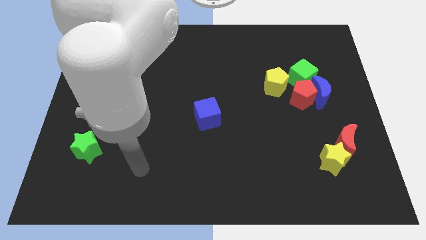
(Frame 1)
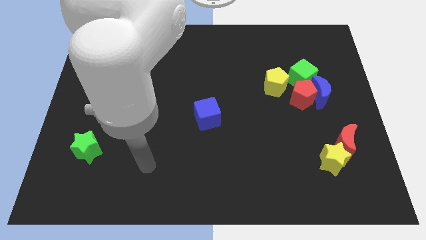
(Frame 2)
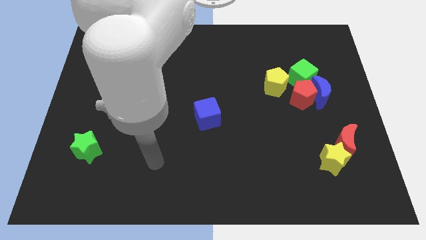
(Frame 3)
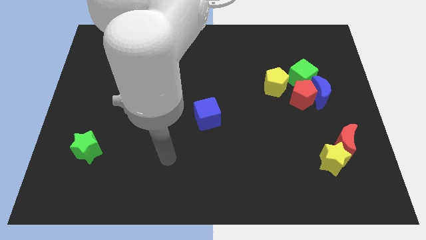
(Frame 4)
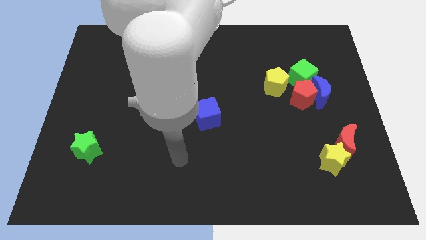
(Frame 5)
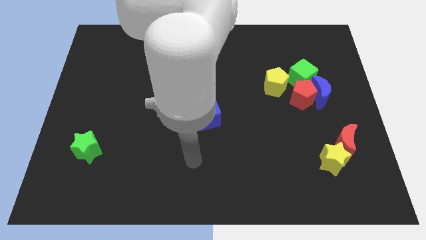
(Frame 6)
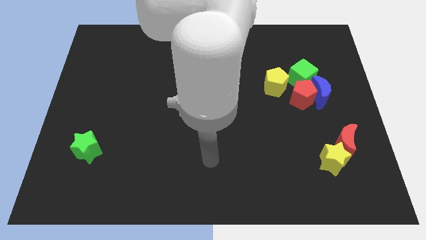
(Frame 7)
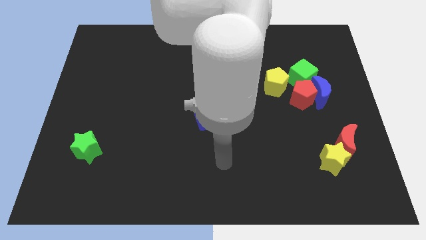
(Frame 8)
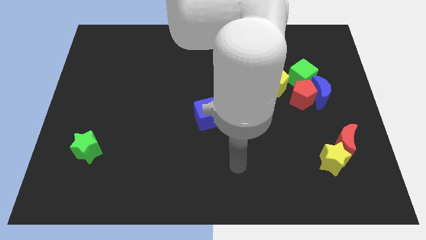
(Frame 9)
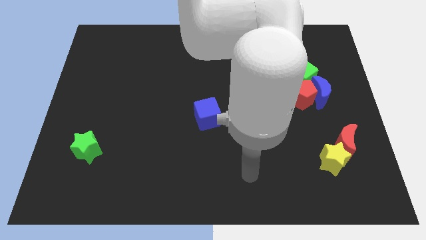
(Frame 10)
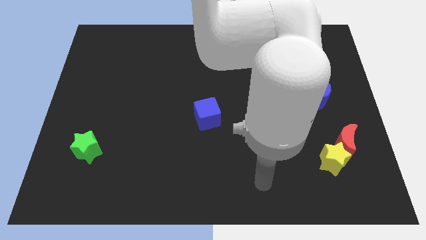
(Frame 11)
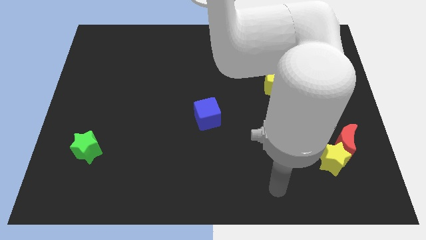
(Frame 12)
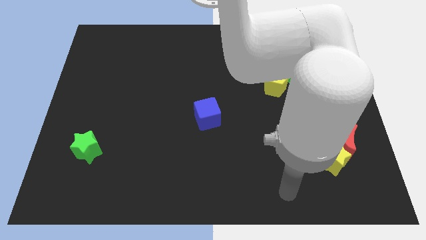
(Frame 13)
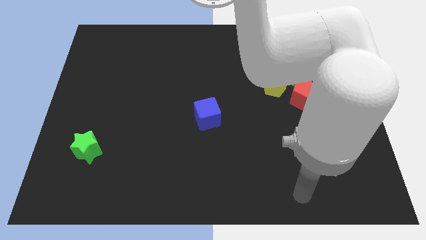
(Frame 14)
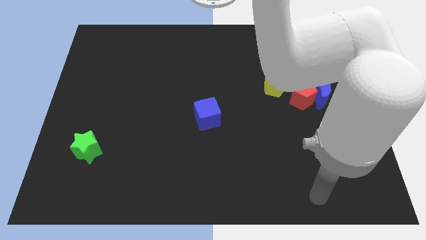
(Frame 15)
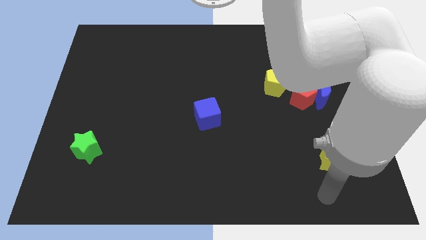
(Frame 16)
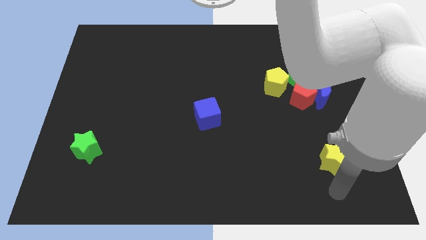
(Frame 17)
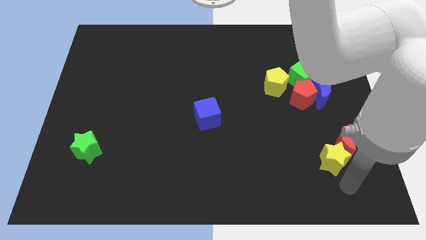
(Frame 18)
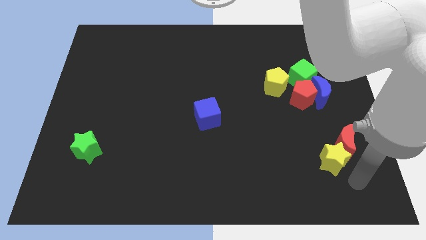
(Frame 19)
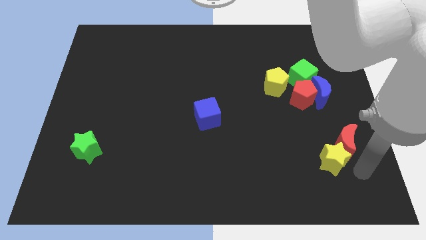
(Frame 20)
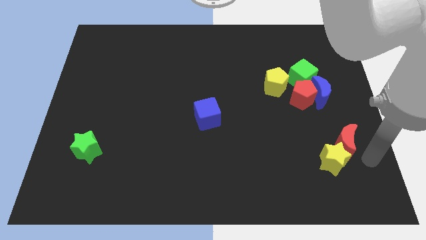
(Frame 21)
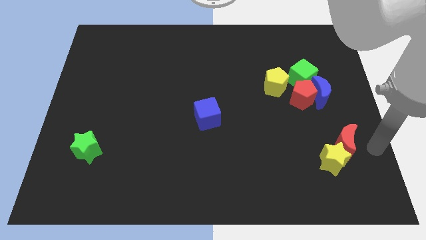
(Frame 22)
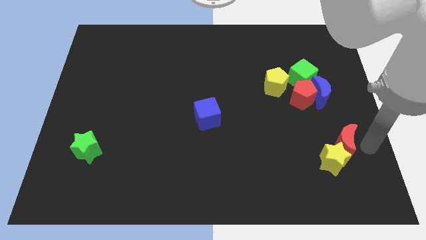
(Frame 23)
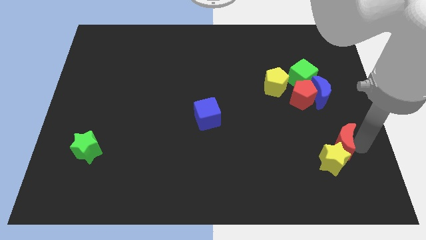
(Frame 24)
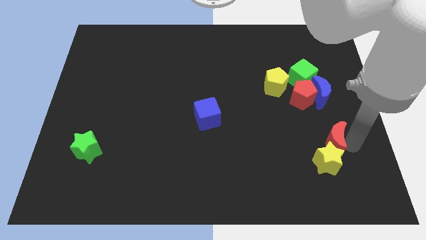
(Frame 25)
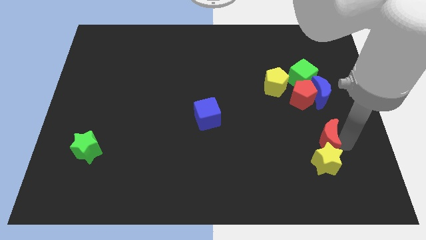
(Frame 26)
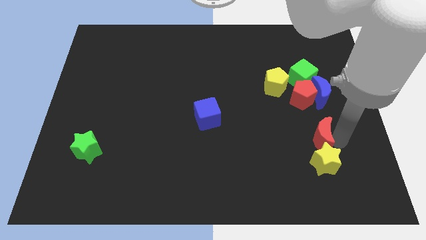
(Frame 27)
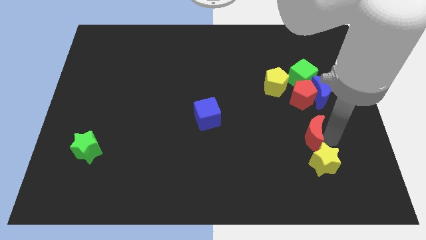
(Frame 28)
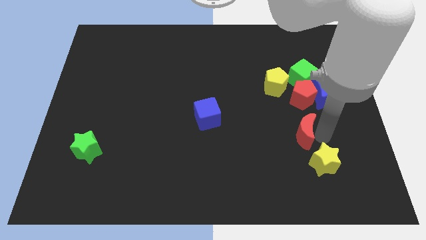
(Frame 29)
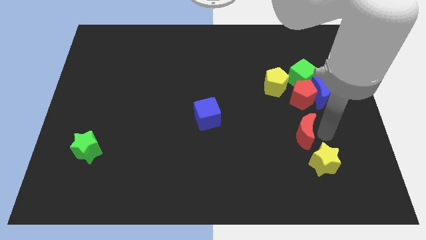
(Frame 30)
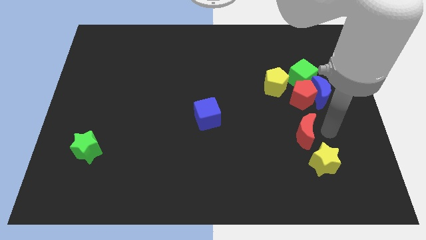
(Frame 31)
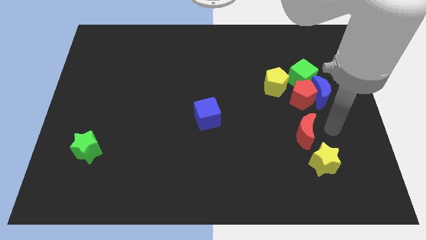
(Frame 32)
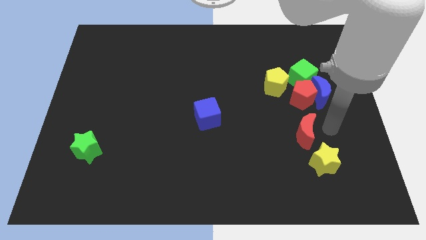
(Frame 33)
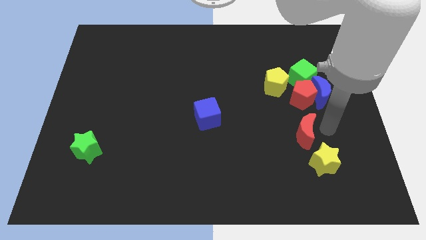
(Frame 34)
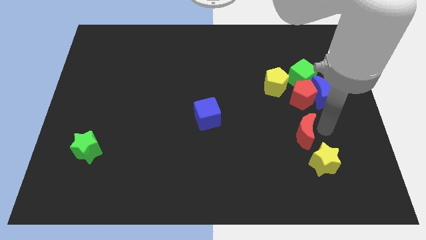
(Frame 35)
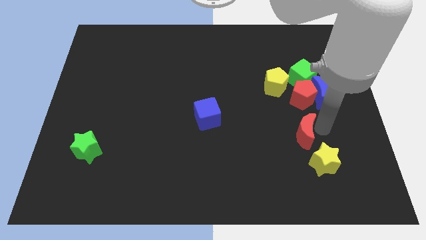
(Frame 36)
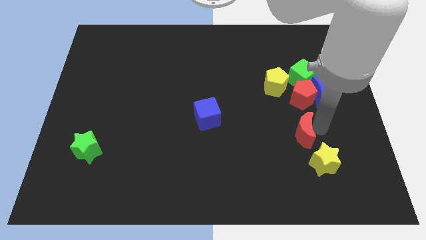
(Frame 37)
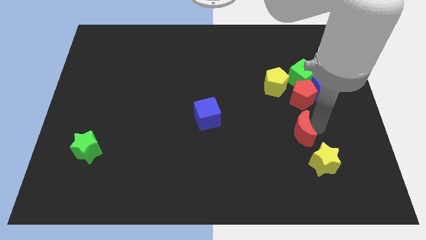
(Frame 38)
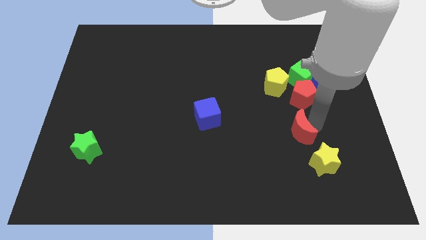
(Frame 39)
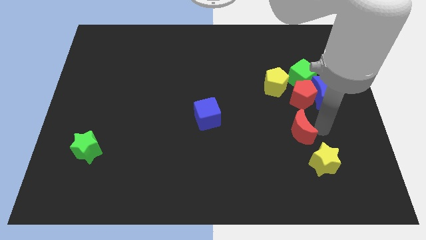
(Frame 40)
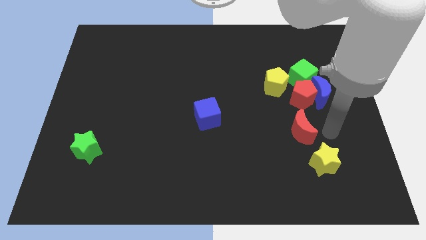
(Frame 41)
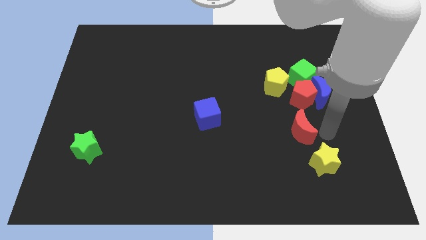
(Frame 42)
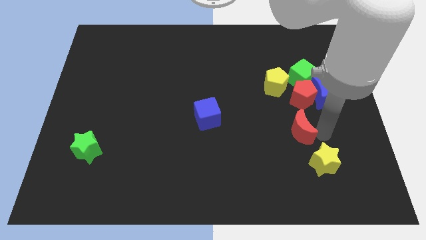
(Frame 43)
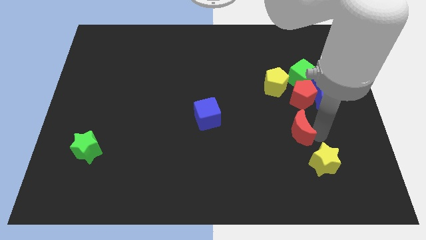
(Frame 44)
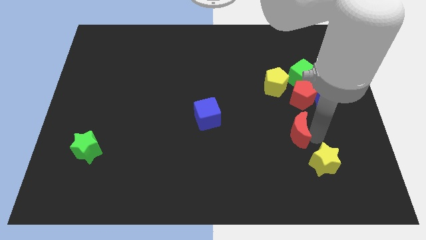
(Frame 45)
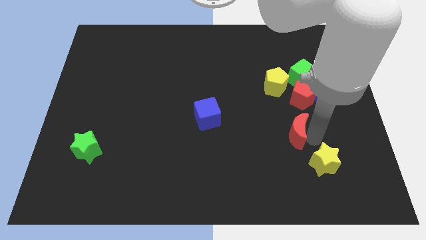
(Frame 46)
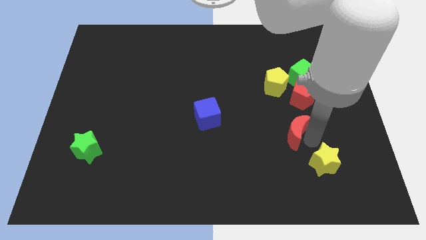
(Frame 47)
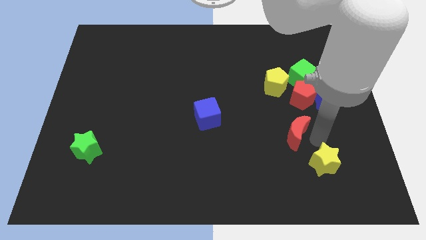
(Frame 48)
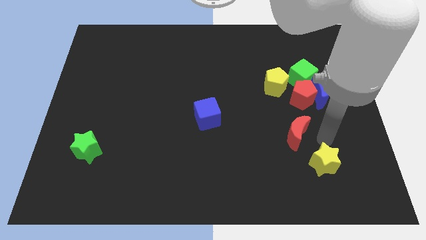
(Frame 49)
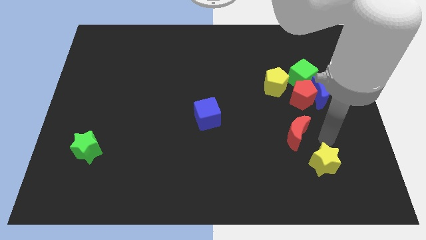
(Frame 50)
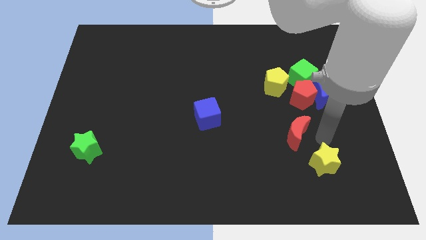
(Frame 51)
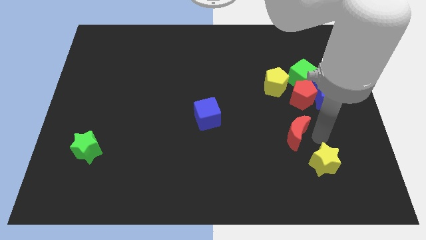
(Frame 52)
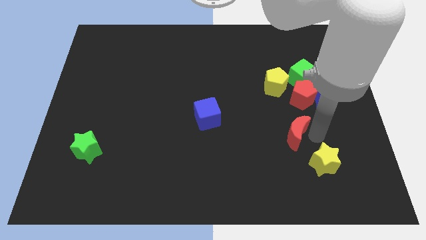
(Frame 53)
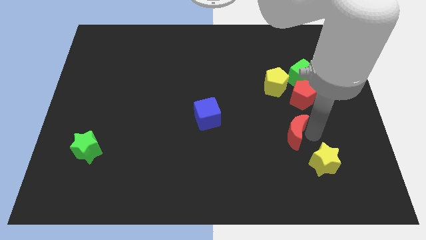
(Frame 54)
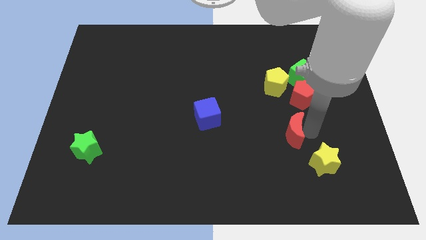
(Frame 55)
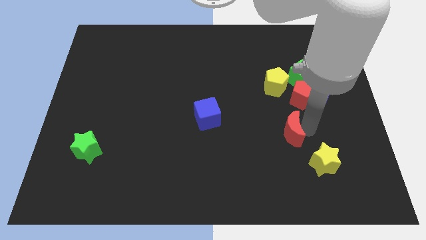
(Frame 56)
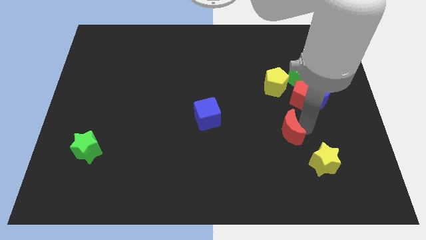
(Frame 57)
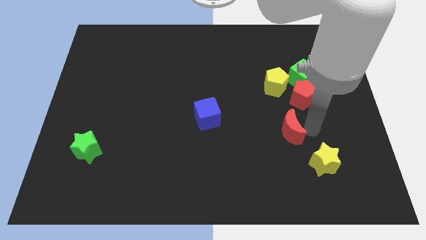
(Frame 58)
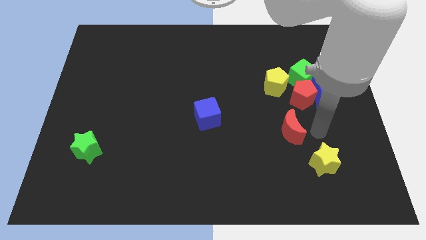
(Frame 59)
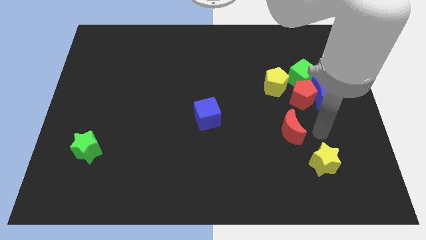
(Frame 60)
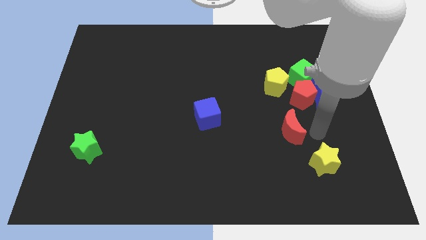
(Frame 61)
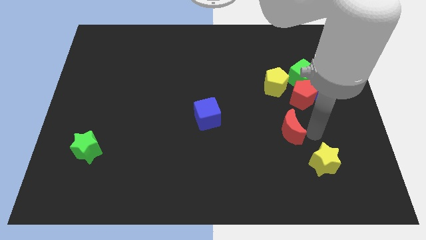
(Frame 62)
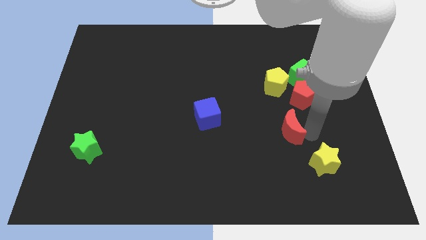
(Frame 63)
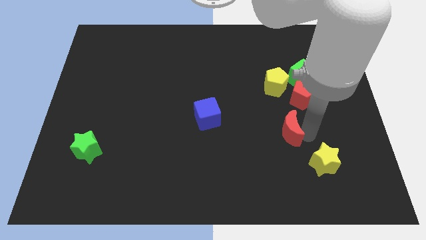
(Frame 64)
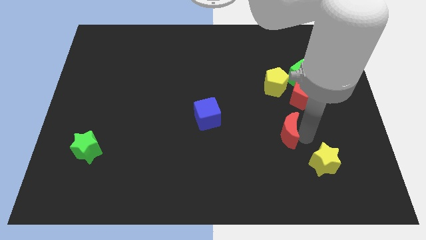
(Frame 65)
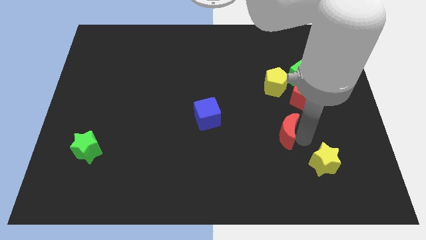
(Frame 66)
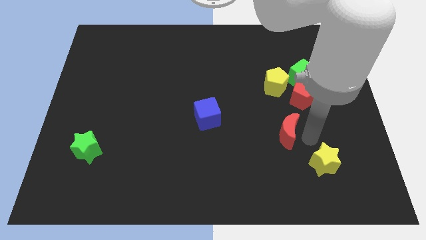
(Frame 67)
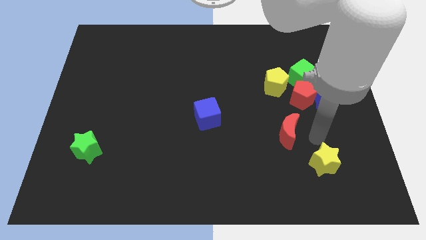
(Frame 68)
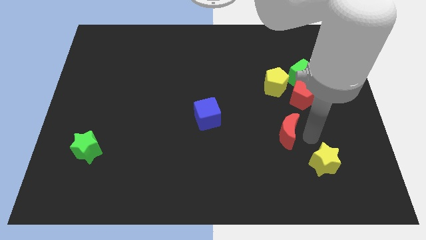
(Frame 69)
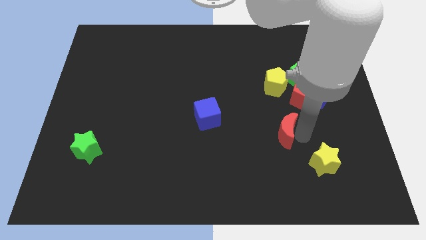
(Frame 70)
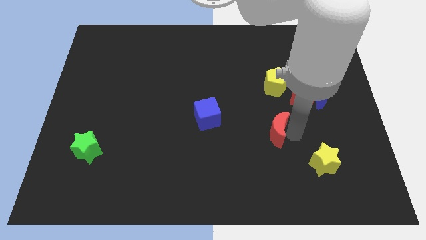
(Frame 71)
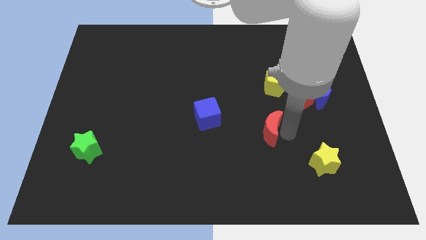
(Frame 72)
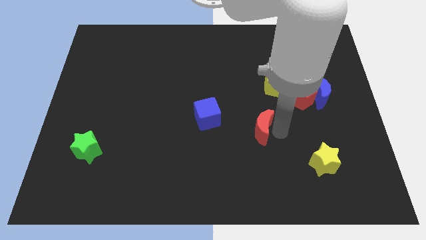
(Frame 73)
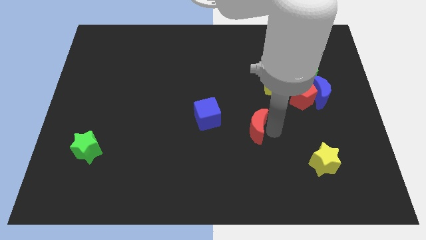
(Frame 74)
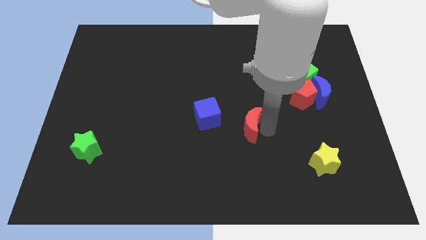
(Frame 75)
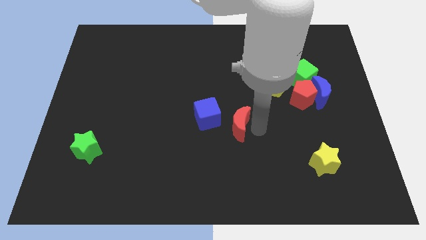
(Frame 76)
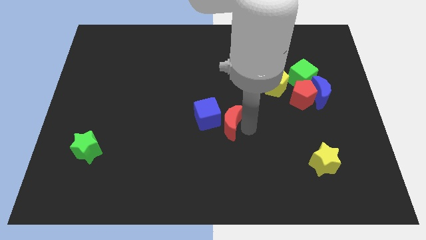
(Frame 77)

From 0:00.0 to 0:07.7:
slide the red moon to the blue cube
